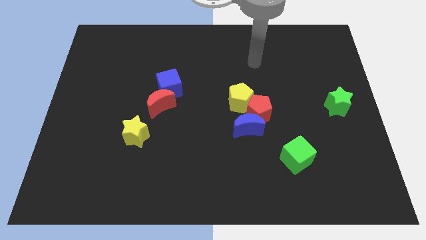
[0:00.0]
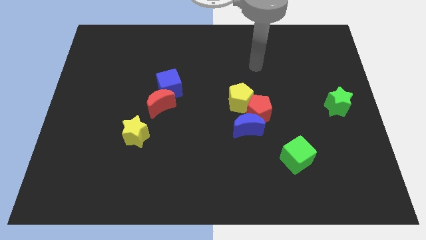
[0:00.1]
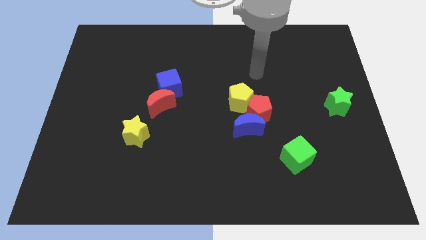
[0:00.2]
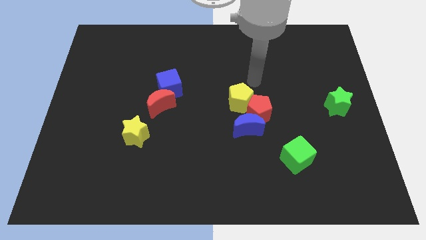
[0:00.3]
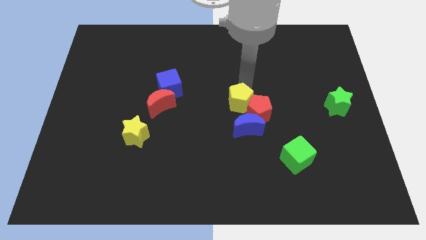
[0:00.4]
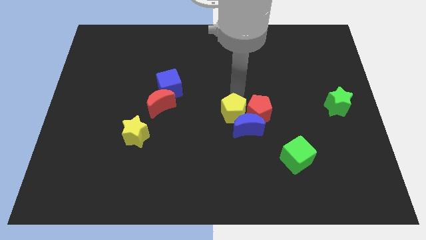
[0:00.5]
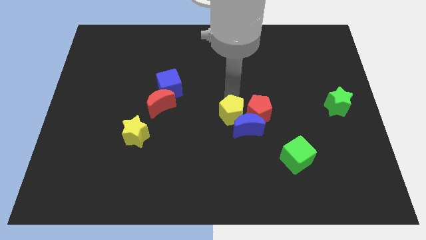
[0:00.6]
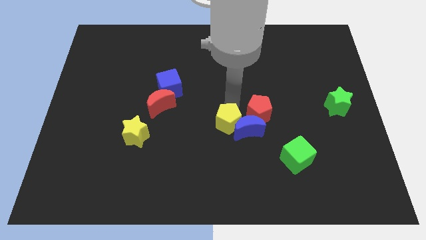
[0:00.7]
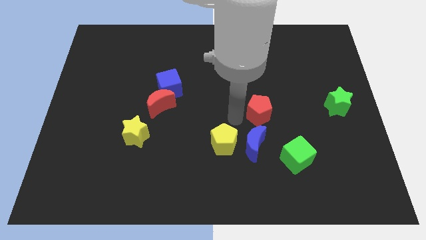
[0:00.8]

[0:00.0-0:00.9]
move the red pentagon away from the blue moon and yellow pentagon

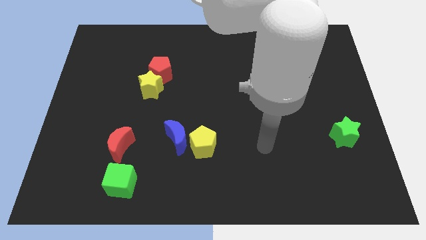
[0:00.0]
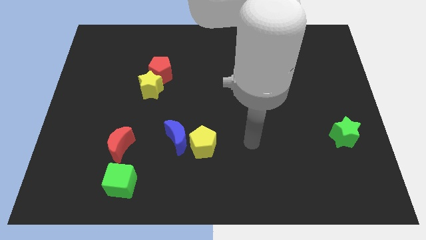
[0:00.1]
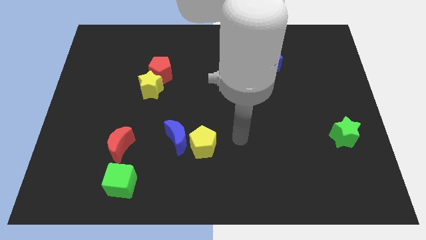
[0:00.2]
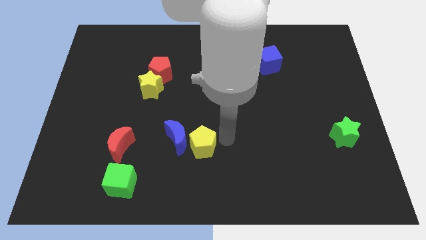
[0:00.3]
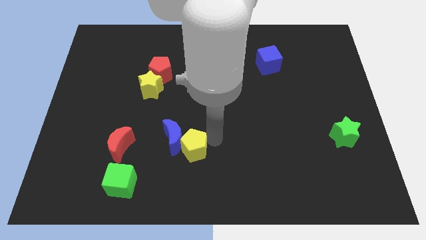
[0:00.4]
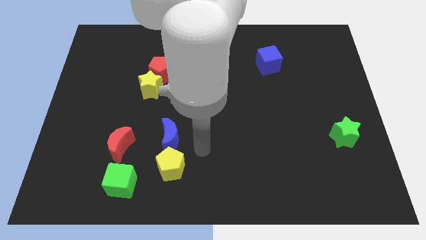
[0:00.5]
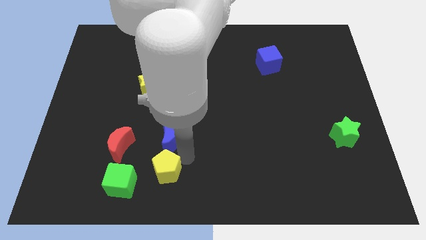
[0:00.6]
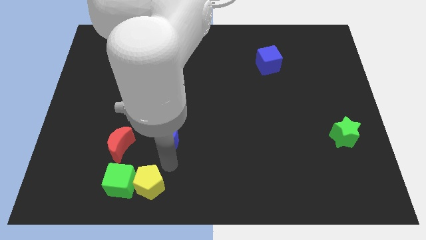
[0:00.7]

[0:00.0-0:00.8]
separate the blue moon from the yellow pentagon

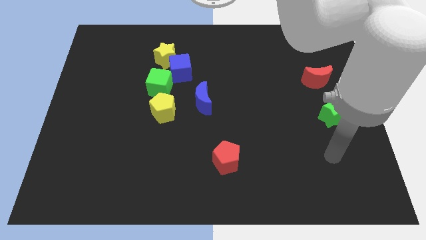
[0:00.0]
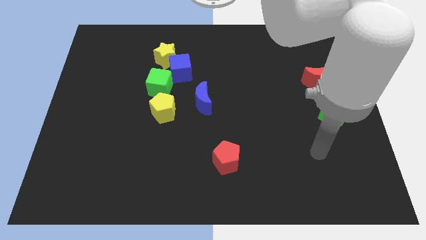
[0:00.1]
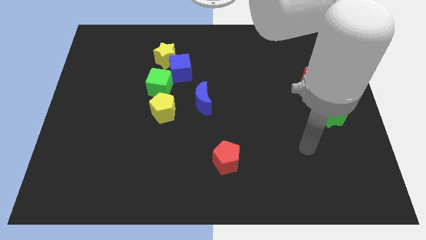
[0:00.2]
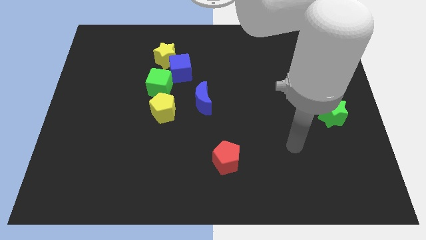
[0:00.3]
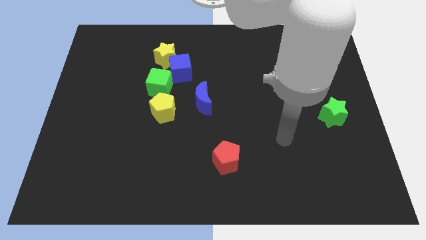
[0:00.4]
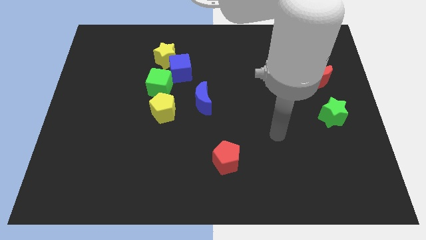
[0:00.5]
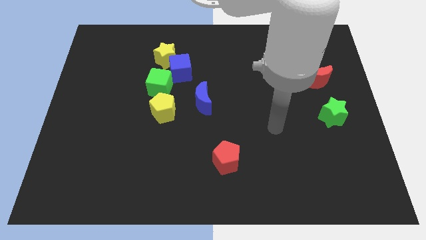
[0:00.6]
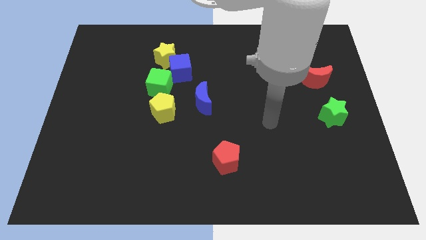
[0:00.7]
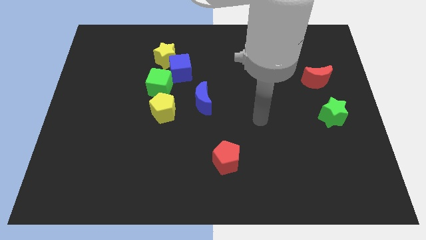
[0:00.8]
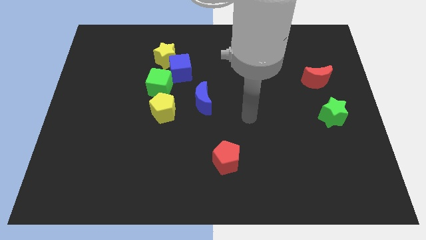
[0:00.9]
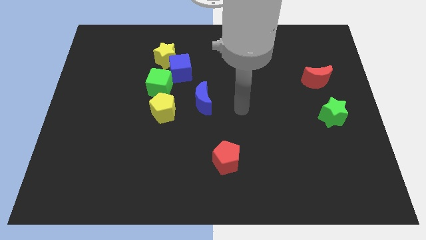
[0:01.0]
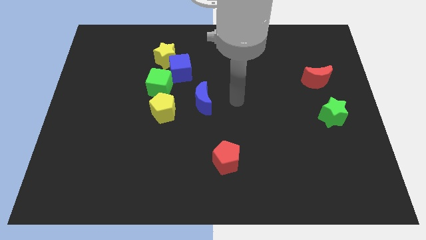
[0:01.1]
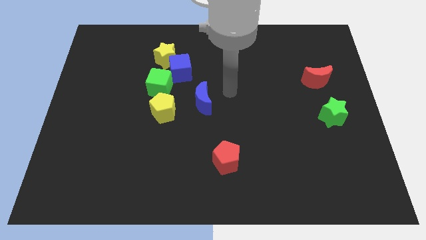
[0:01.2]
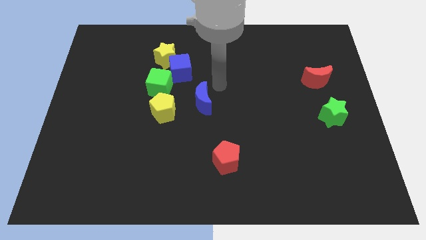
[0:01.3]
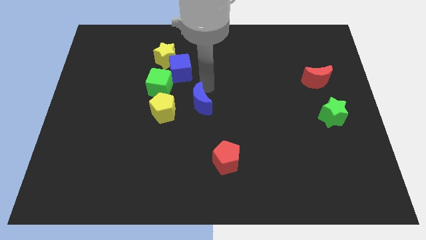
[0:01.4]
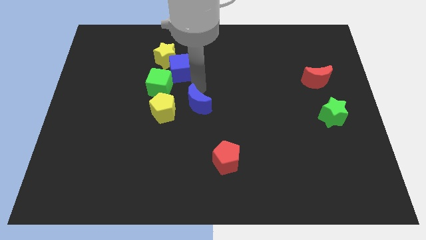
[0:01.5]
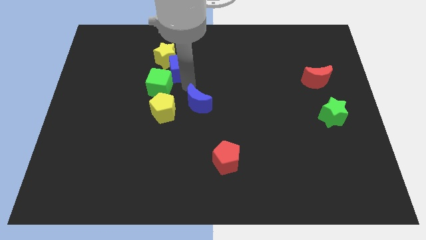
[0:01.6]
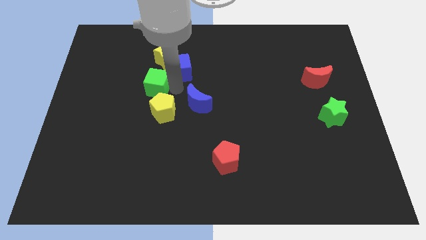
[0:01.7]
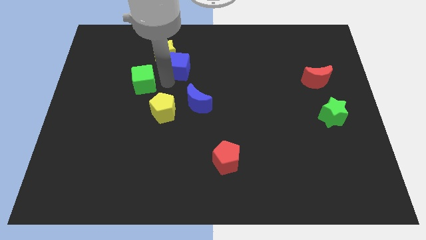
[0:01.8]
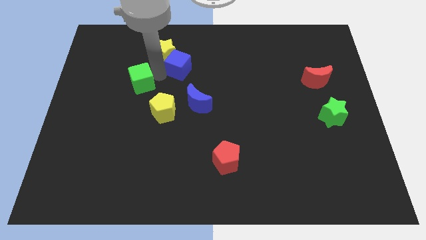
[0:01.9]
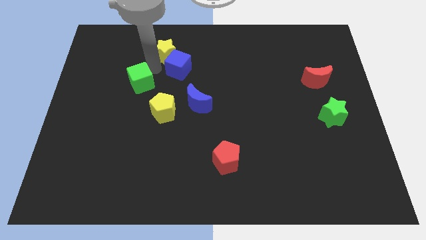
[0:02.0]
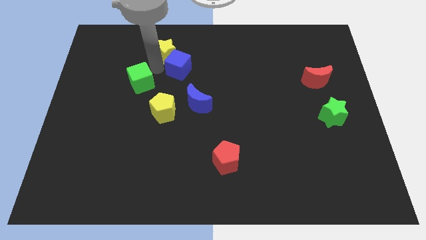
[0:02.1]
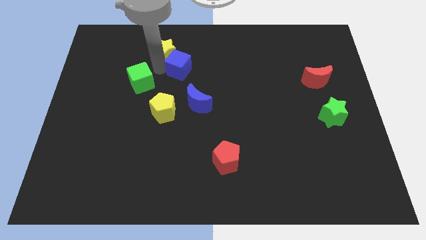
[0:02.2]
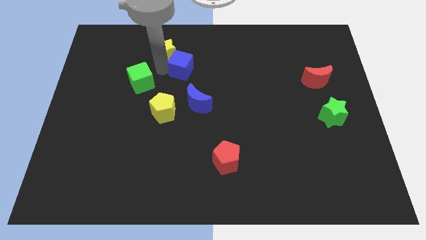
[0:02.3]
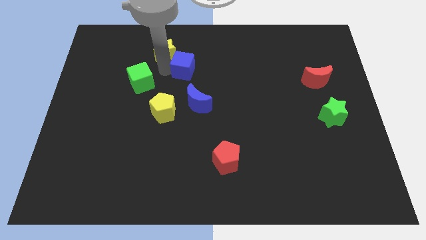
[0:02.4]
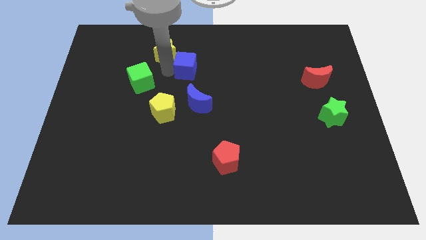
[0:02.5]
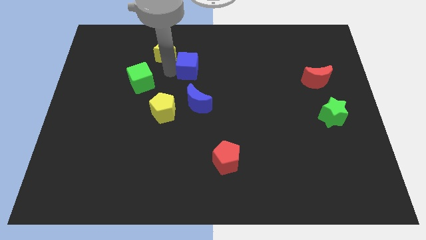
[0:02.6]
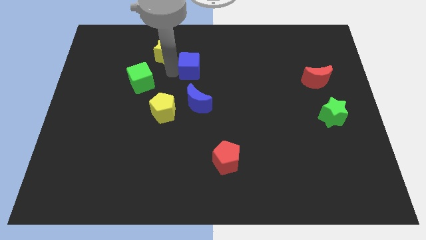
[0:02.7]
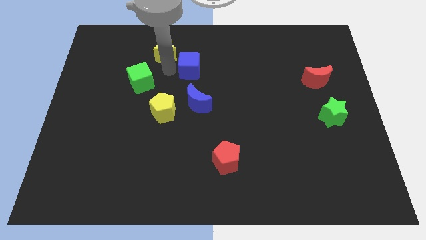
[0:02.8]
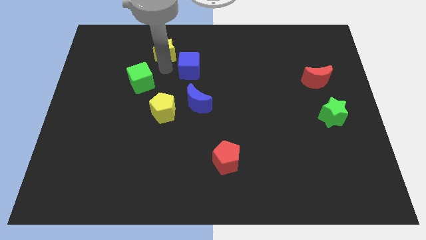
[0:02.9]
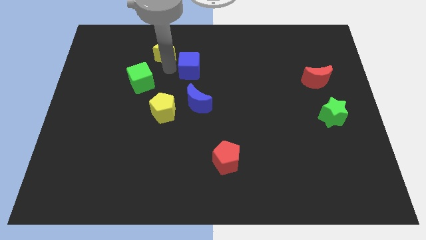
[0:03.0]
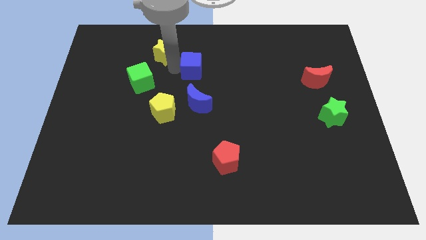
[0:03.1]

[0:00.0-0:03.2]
pull the blue cube apart from the yellow star and green cube

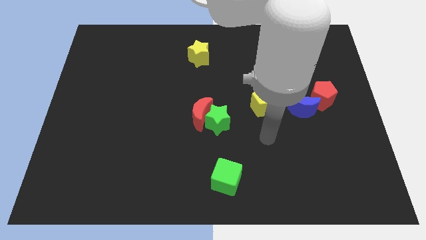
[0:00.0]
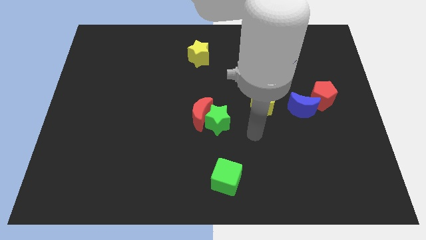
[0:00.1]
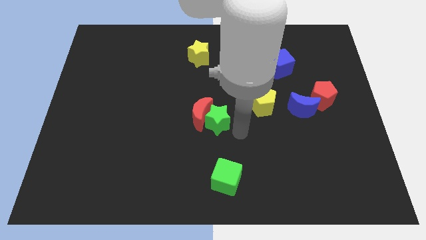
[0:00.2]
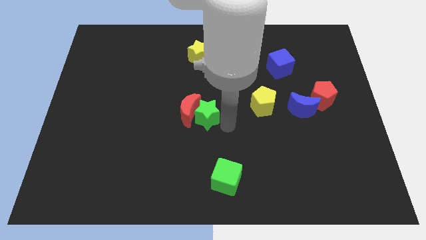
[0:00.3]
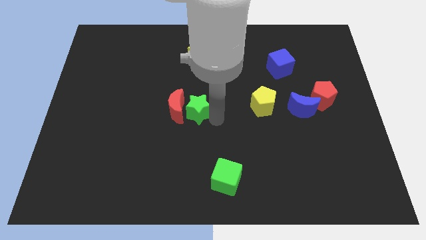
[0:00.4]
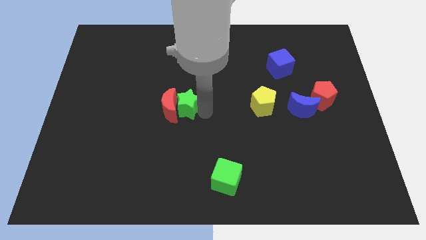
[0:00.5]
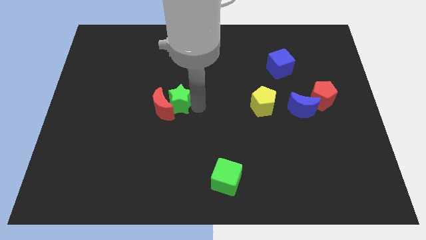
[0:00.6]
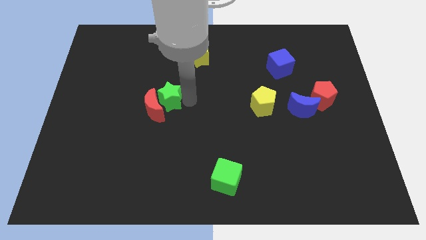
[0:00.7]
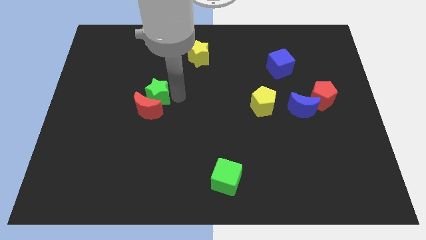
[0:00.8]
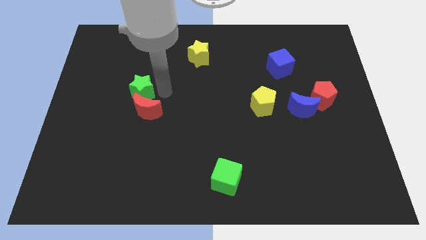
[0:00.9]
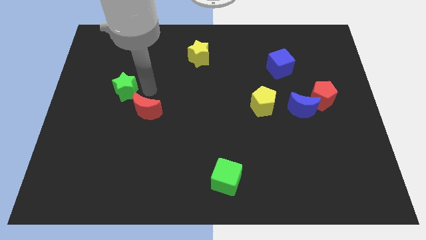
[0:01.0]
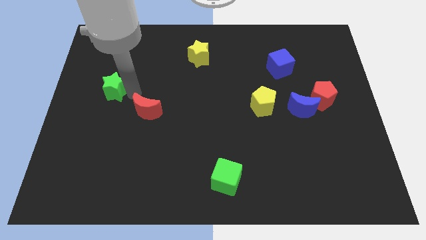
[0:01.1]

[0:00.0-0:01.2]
pull the red moon apart from the green star

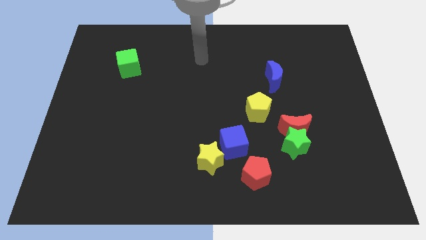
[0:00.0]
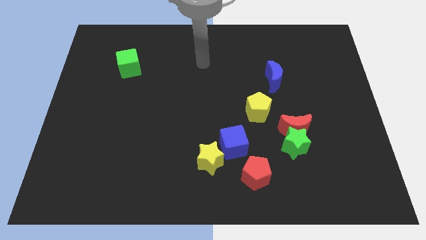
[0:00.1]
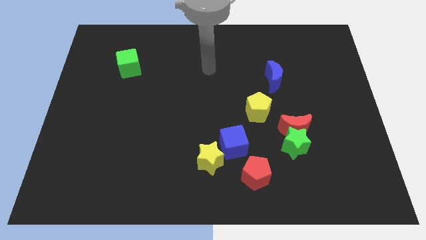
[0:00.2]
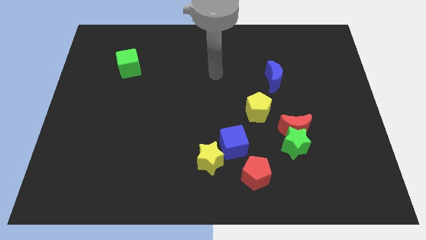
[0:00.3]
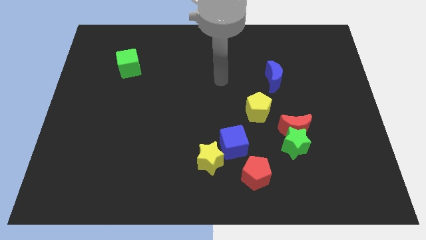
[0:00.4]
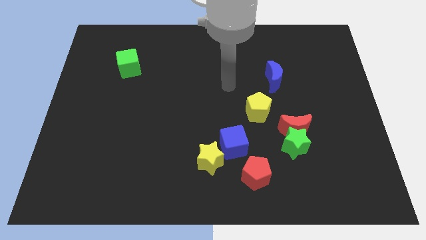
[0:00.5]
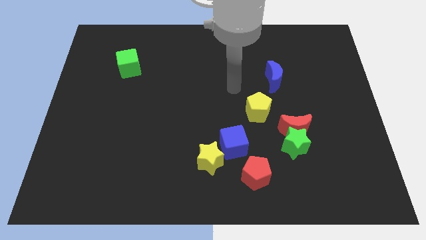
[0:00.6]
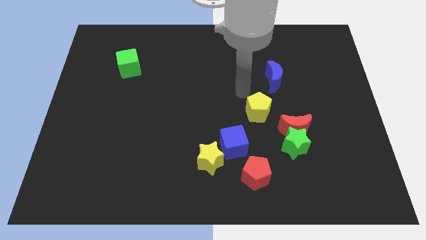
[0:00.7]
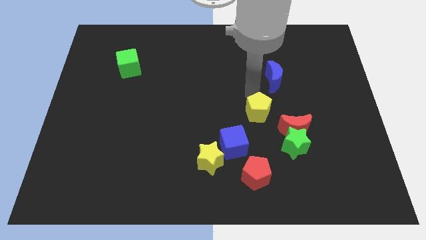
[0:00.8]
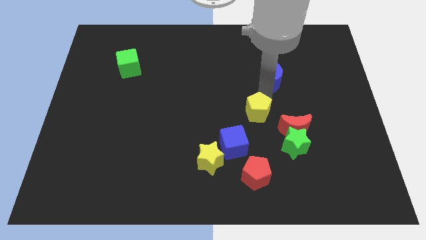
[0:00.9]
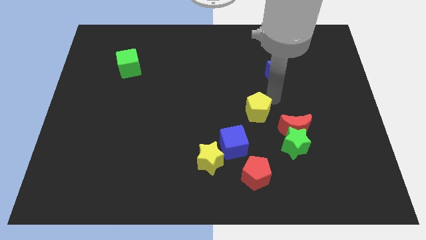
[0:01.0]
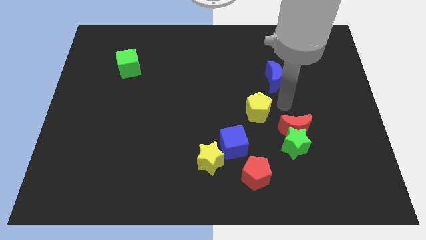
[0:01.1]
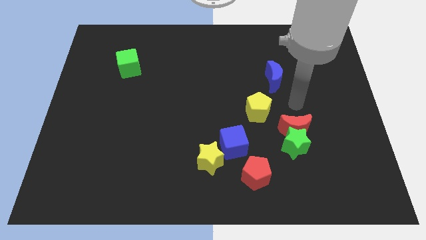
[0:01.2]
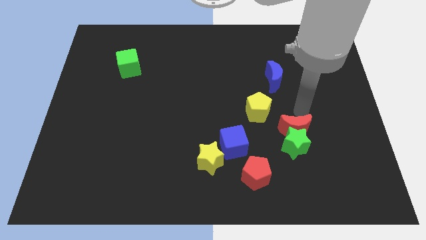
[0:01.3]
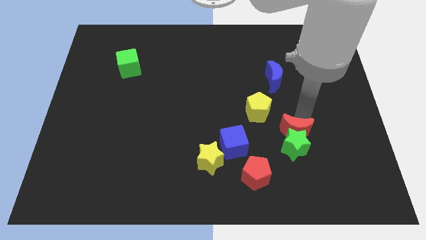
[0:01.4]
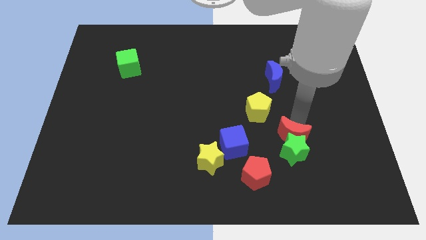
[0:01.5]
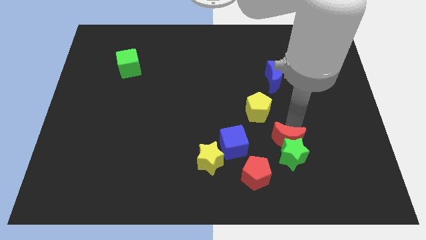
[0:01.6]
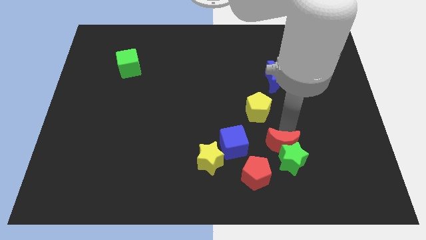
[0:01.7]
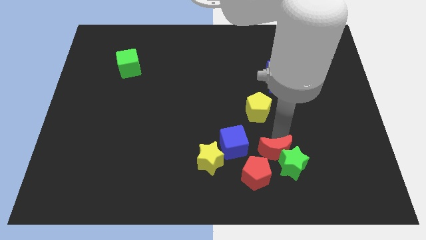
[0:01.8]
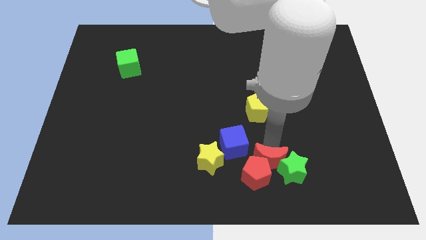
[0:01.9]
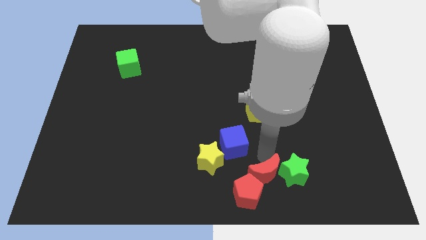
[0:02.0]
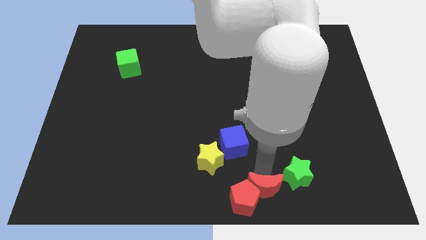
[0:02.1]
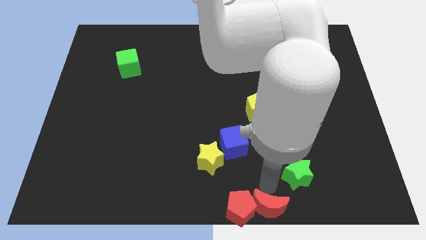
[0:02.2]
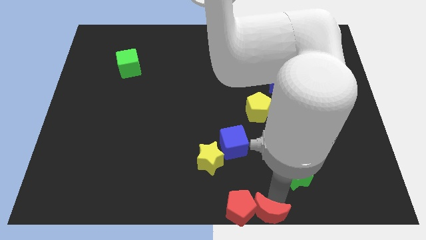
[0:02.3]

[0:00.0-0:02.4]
move the green star away from the red moon

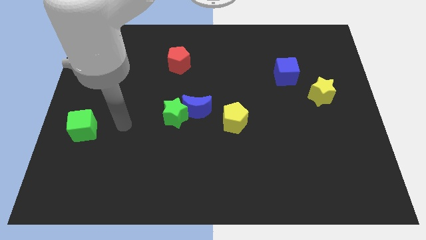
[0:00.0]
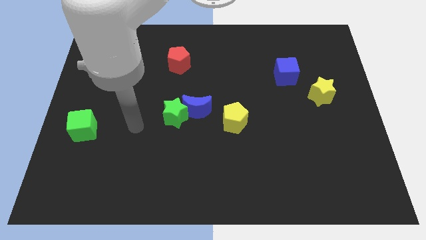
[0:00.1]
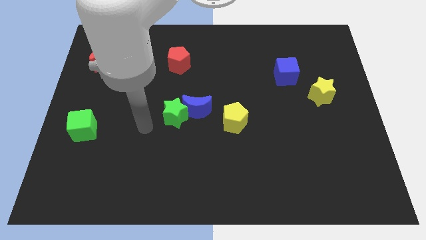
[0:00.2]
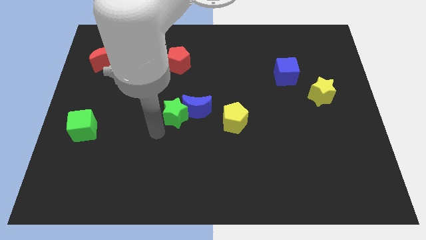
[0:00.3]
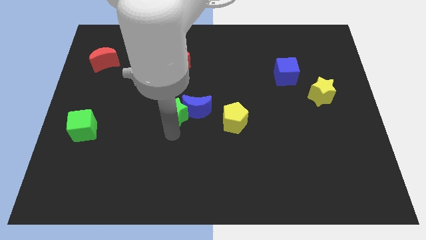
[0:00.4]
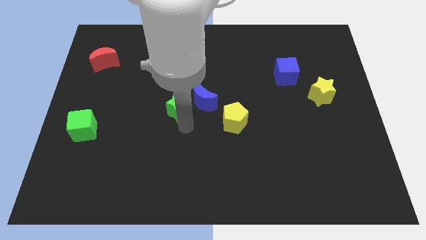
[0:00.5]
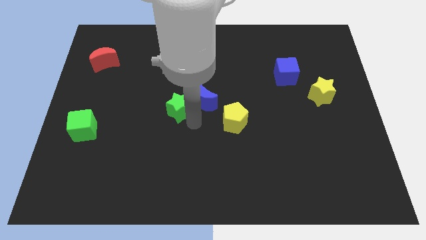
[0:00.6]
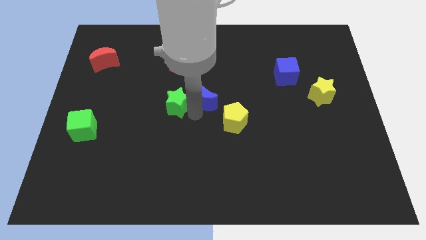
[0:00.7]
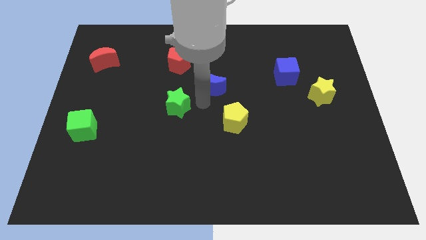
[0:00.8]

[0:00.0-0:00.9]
separate the green star from the blue moon
